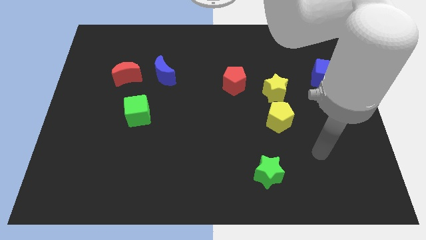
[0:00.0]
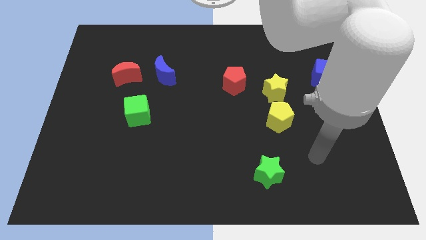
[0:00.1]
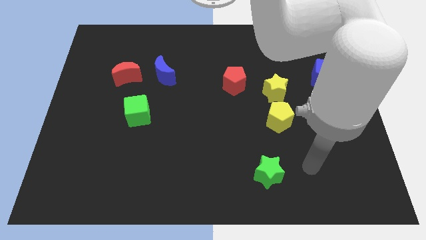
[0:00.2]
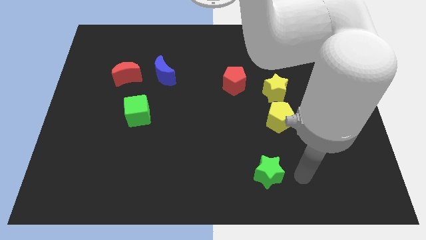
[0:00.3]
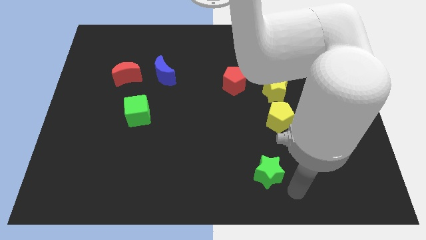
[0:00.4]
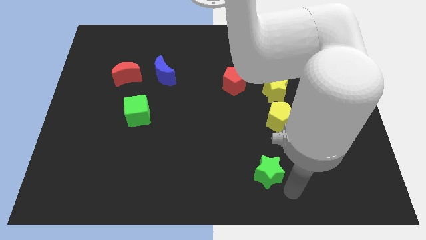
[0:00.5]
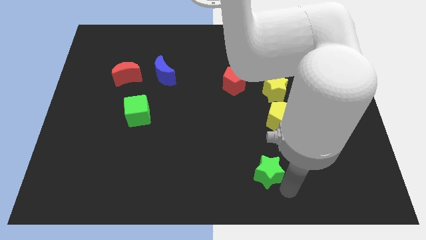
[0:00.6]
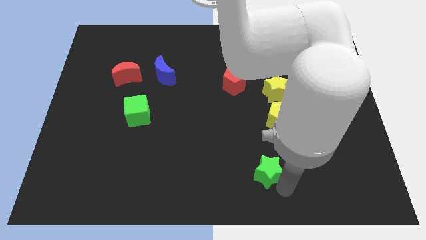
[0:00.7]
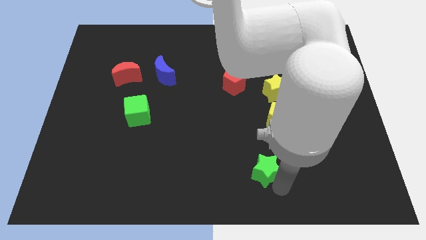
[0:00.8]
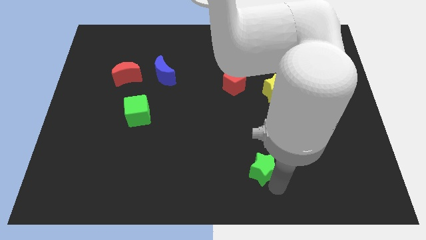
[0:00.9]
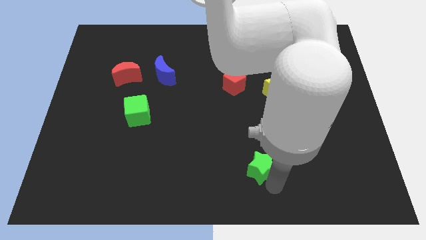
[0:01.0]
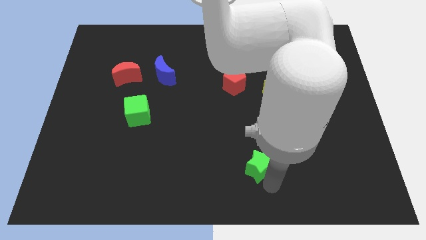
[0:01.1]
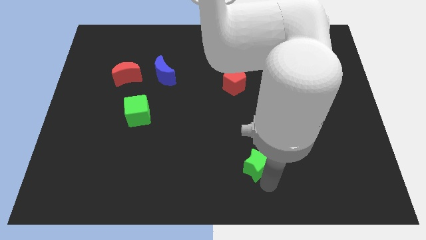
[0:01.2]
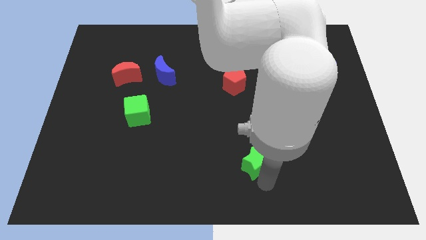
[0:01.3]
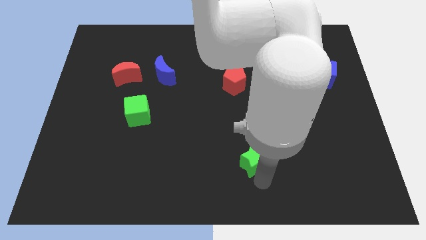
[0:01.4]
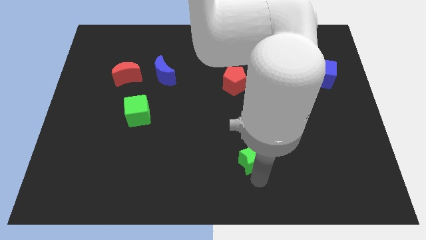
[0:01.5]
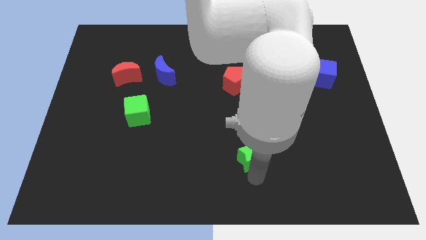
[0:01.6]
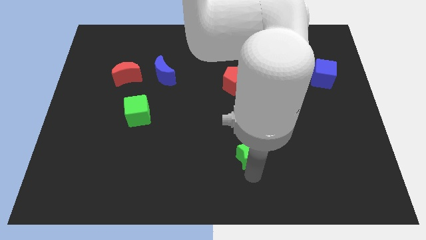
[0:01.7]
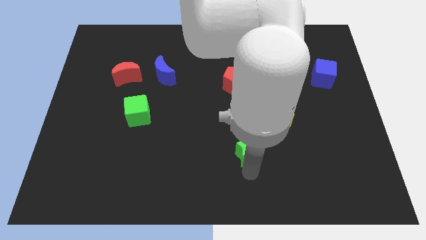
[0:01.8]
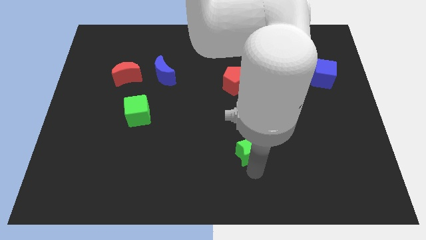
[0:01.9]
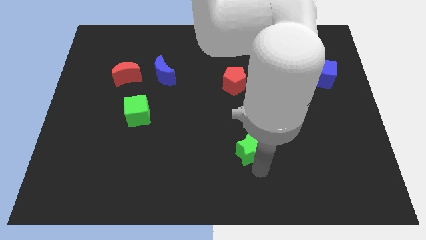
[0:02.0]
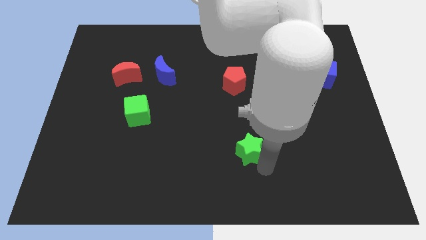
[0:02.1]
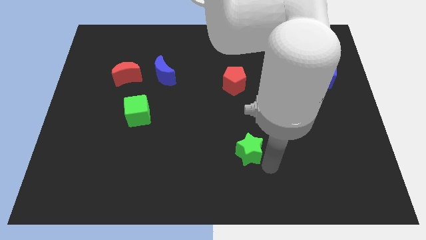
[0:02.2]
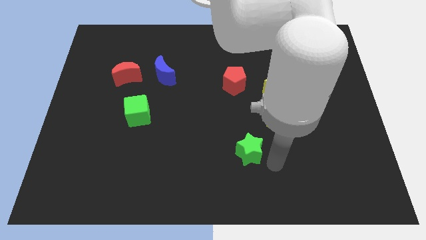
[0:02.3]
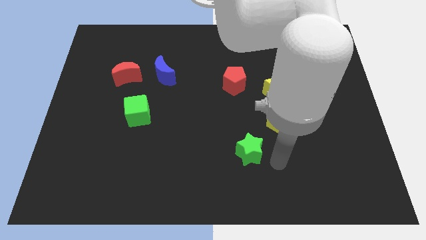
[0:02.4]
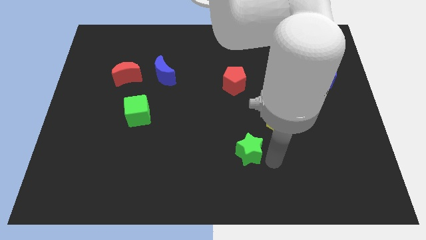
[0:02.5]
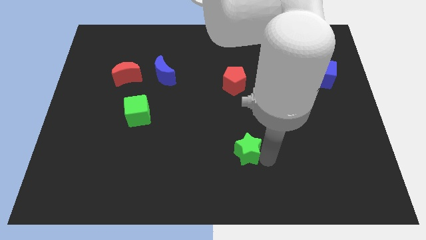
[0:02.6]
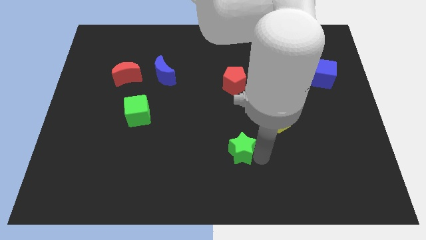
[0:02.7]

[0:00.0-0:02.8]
slightly push the green star up and then left

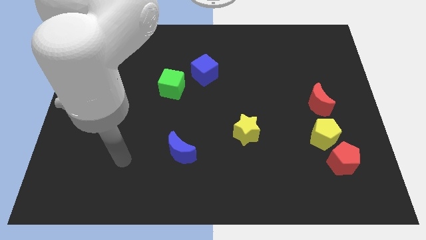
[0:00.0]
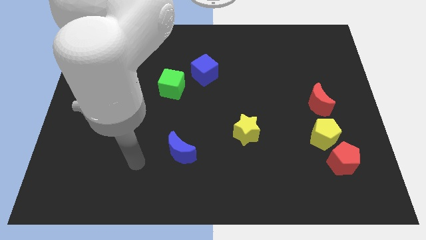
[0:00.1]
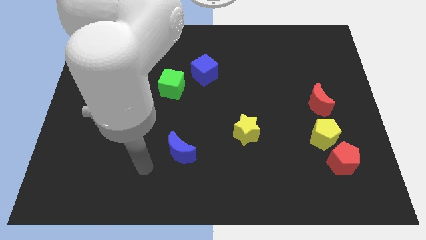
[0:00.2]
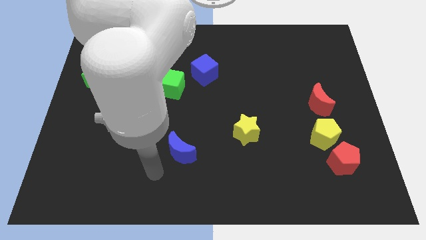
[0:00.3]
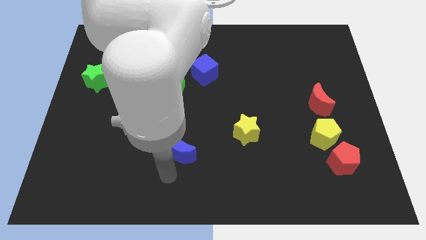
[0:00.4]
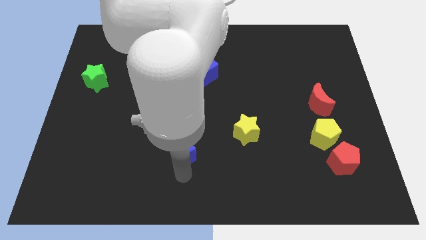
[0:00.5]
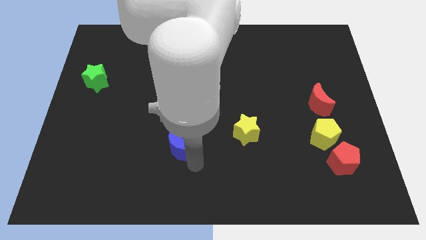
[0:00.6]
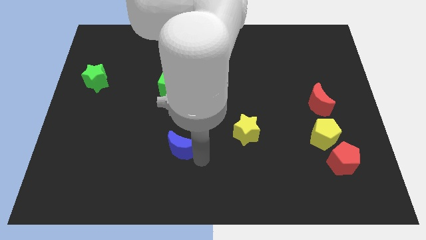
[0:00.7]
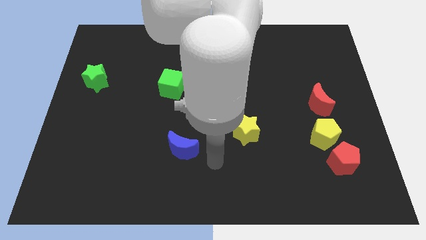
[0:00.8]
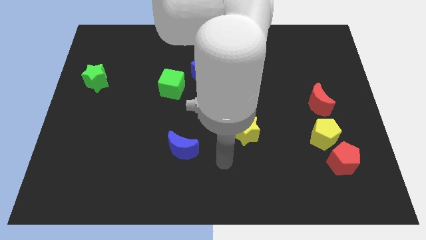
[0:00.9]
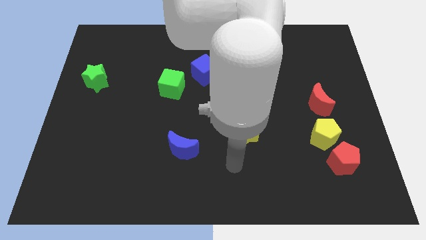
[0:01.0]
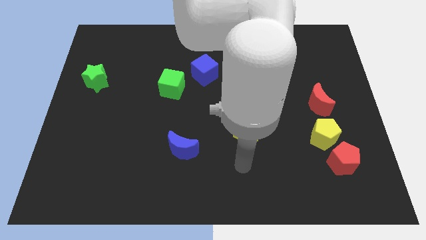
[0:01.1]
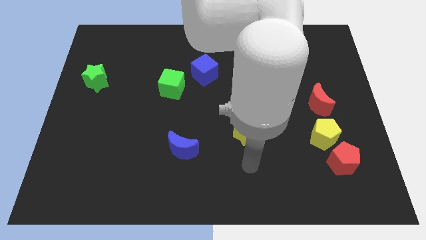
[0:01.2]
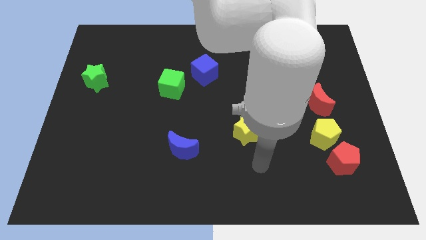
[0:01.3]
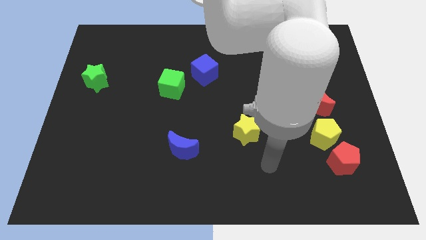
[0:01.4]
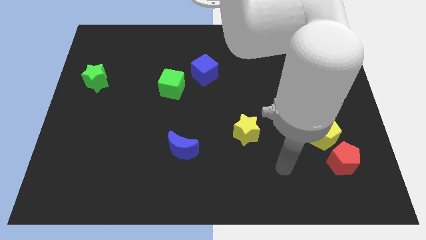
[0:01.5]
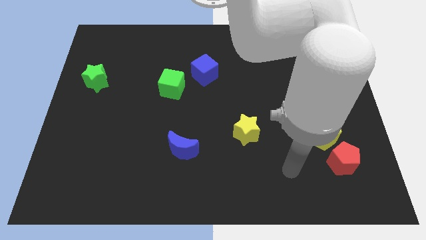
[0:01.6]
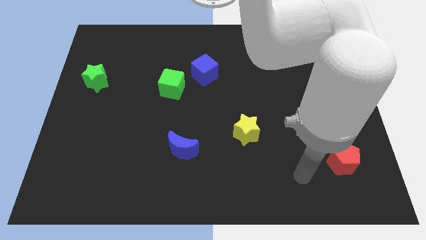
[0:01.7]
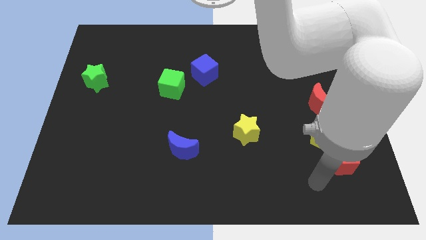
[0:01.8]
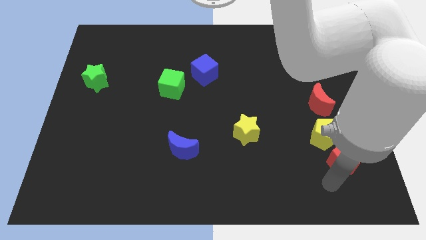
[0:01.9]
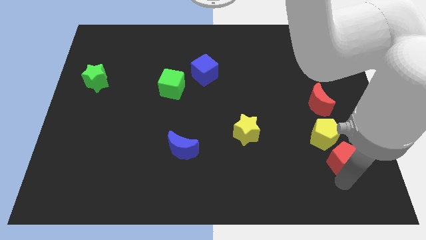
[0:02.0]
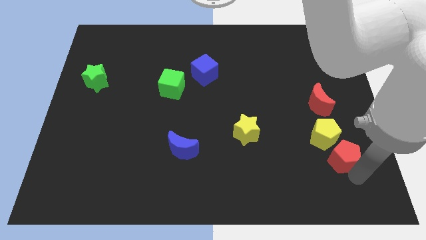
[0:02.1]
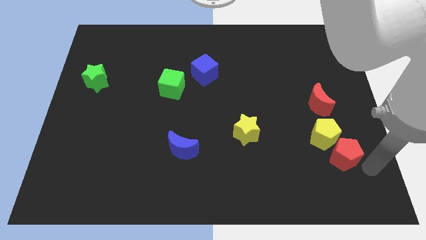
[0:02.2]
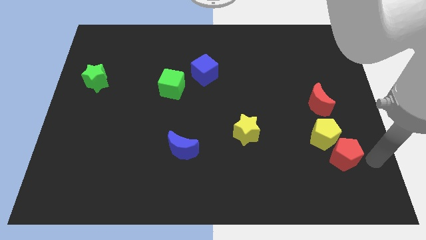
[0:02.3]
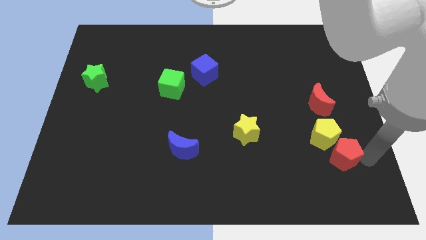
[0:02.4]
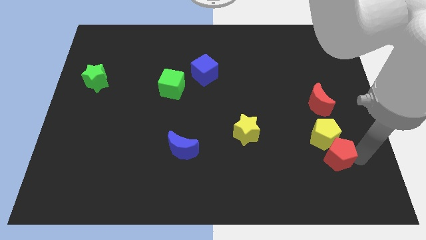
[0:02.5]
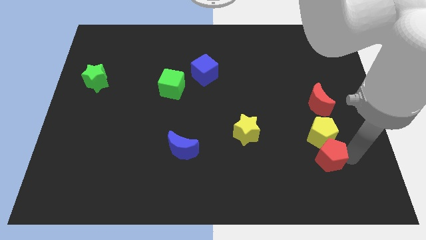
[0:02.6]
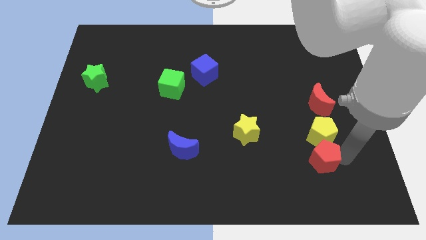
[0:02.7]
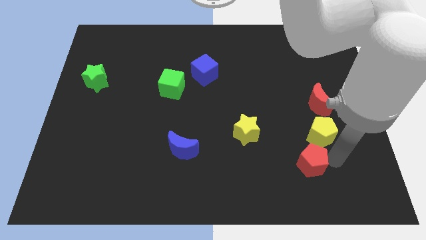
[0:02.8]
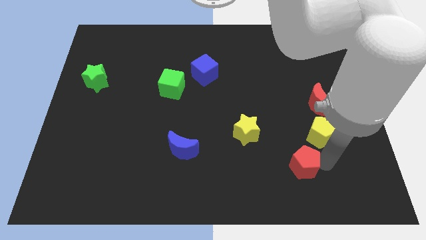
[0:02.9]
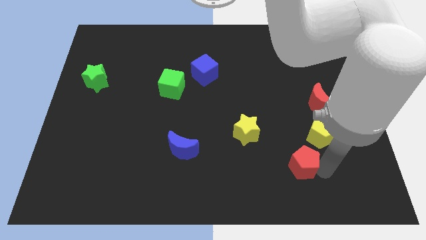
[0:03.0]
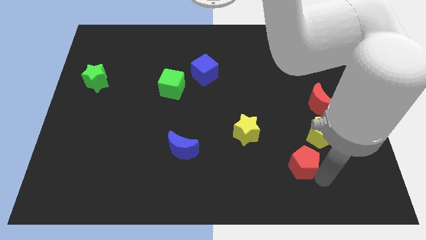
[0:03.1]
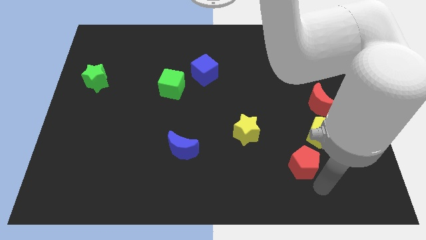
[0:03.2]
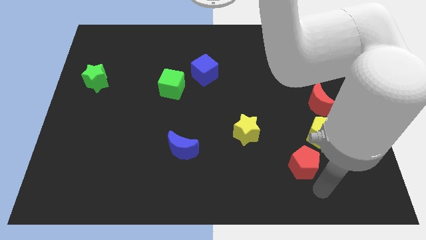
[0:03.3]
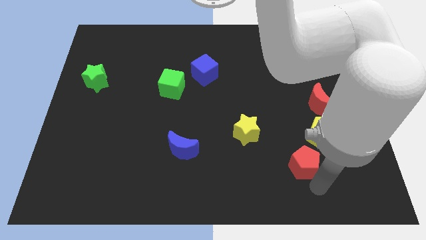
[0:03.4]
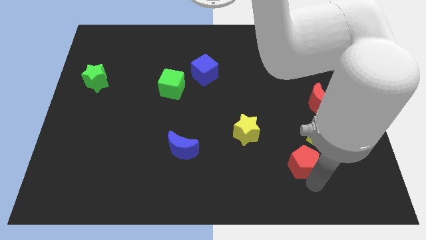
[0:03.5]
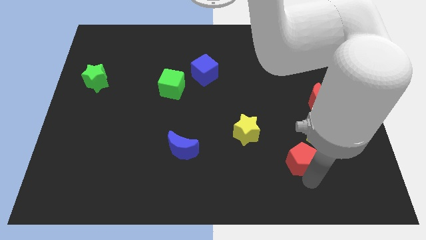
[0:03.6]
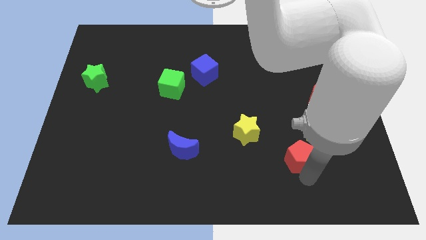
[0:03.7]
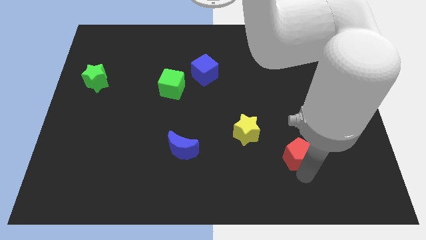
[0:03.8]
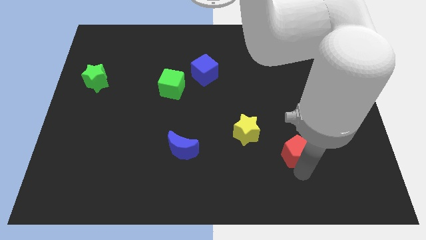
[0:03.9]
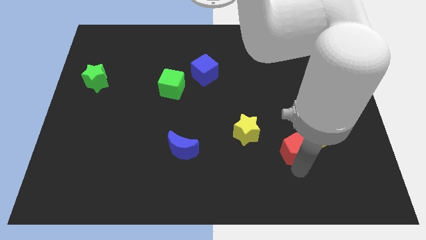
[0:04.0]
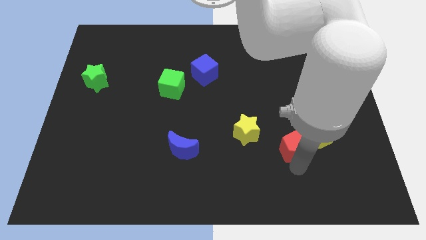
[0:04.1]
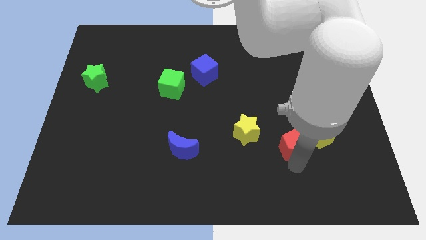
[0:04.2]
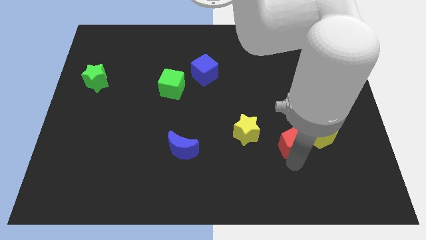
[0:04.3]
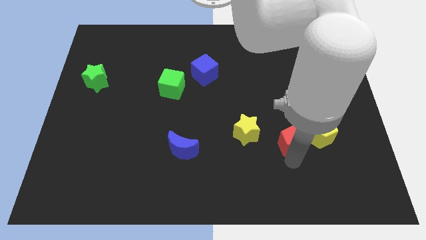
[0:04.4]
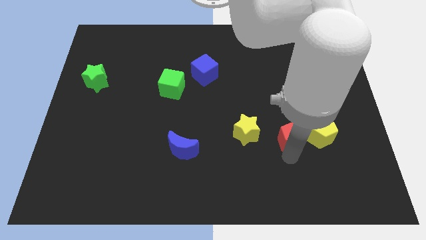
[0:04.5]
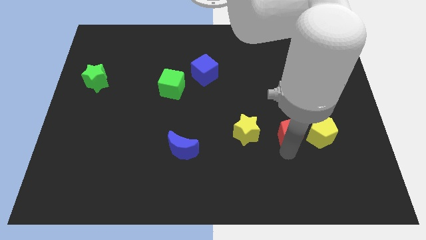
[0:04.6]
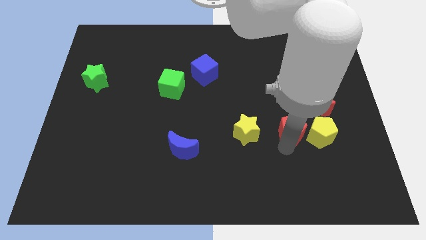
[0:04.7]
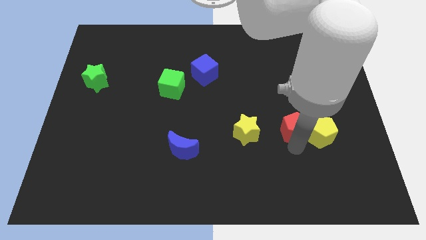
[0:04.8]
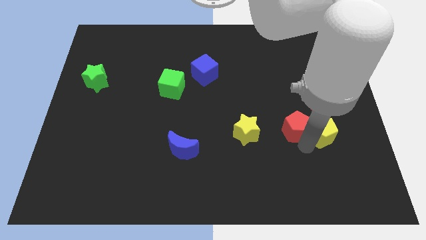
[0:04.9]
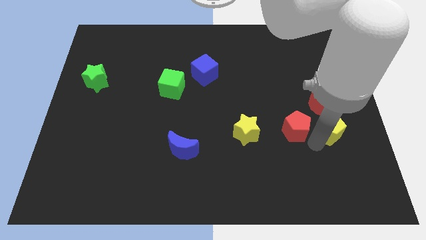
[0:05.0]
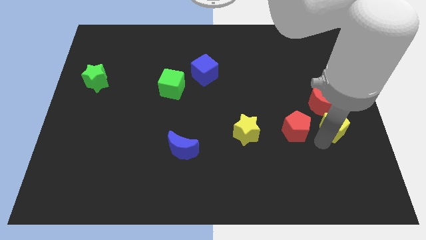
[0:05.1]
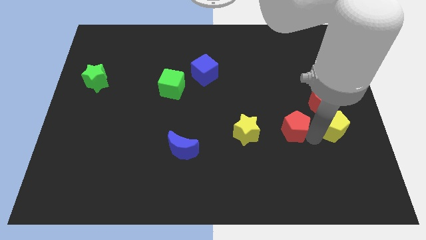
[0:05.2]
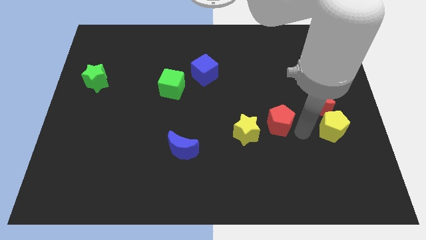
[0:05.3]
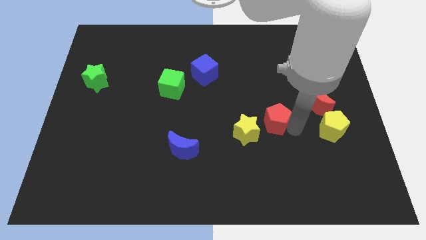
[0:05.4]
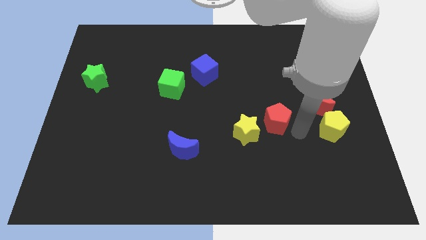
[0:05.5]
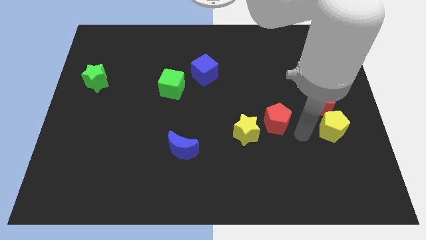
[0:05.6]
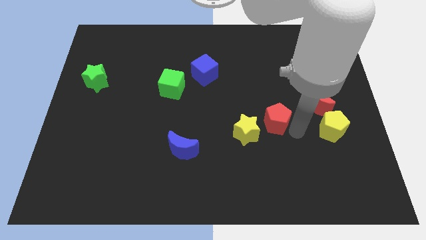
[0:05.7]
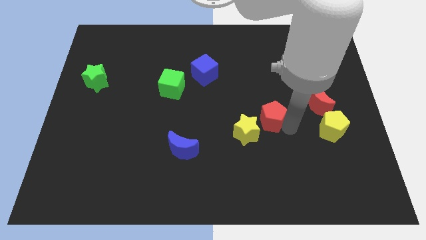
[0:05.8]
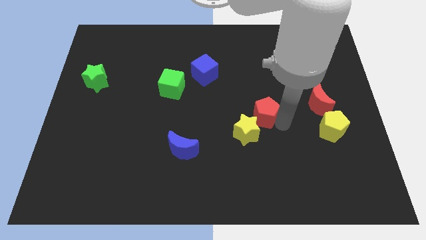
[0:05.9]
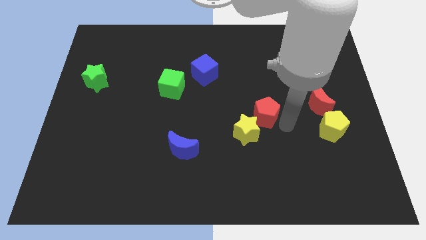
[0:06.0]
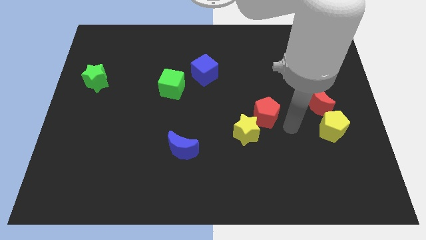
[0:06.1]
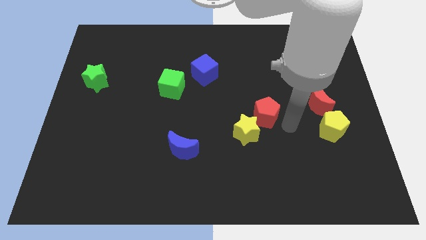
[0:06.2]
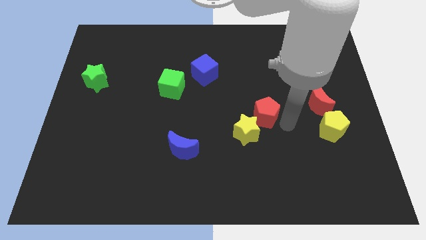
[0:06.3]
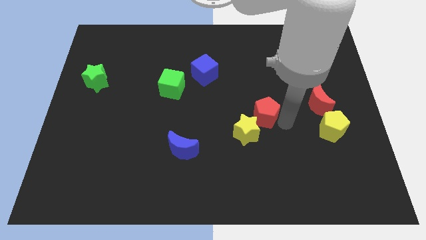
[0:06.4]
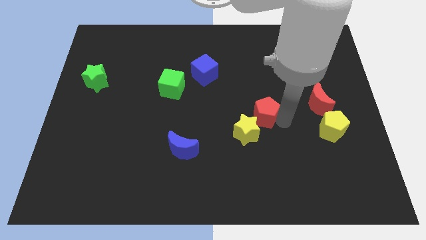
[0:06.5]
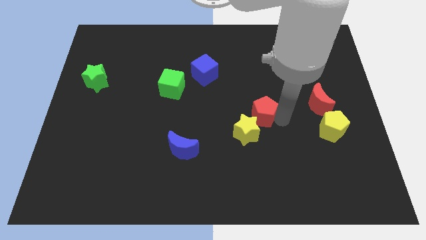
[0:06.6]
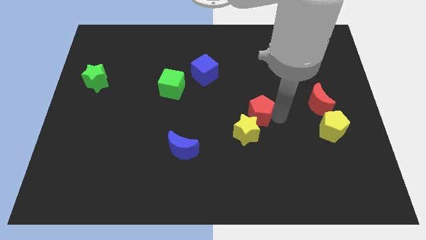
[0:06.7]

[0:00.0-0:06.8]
move the red pentagon diagonally upwards and left
